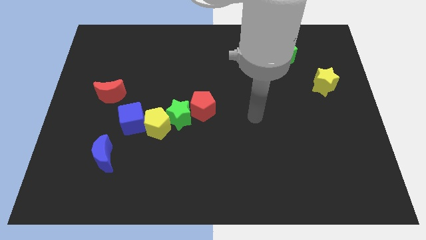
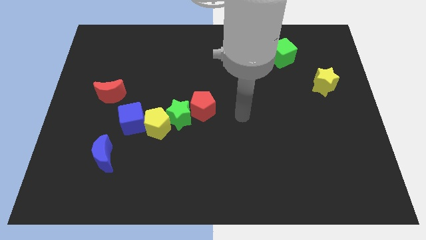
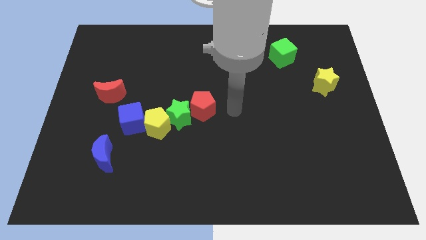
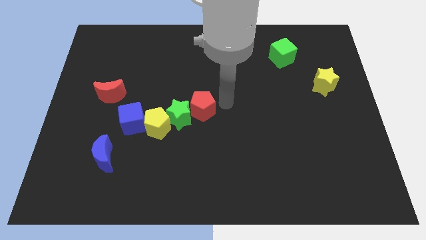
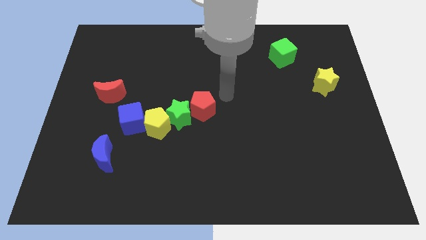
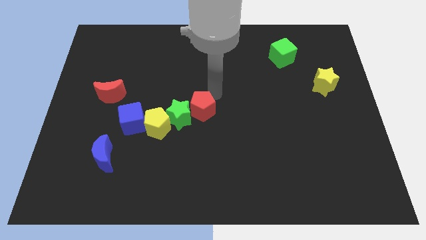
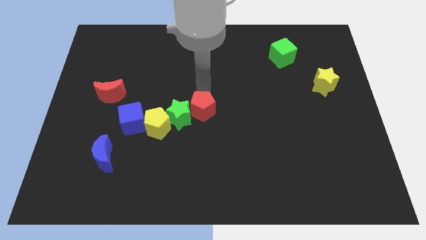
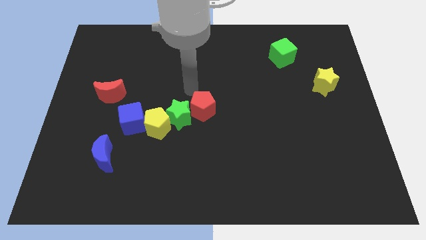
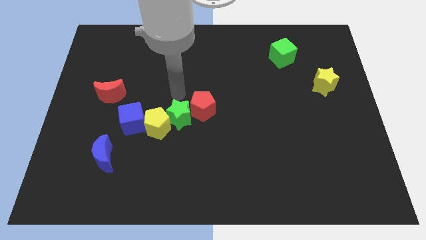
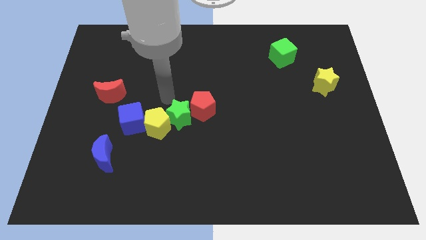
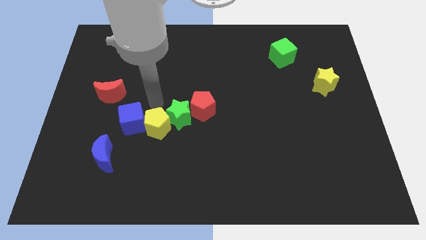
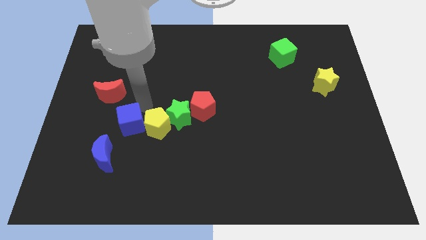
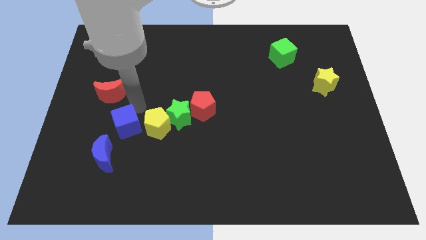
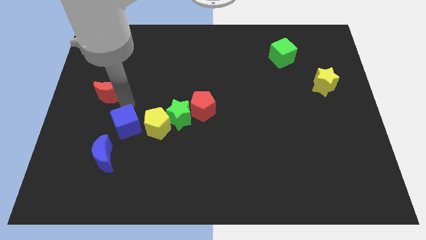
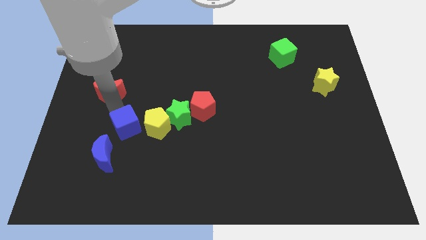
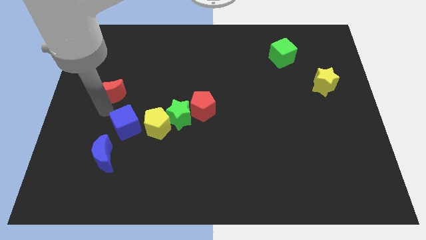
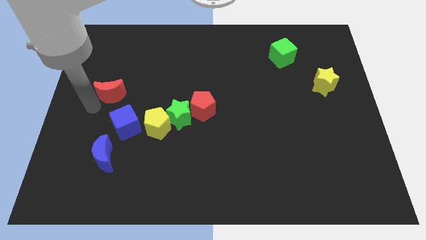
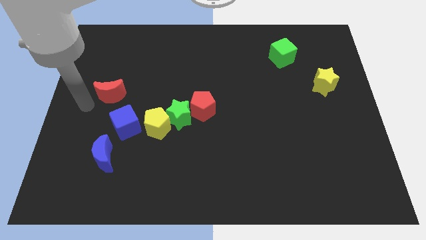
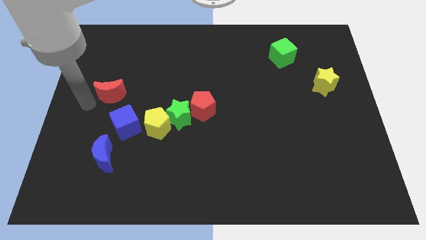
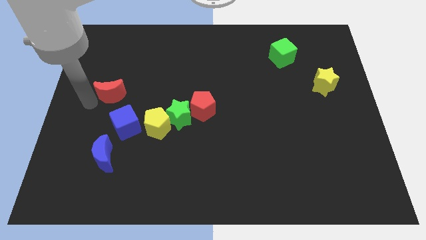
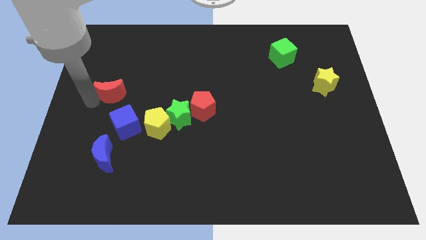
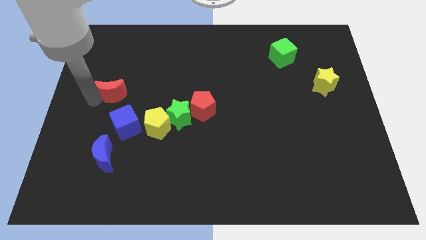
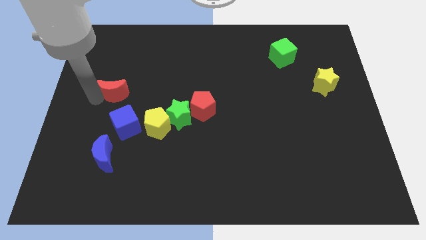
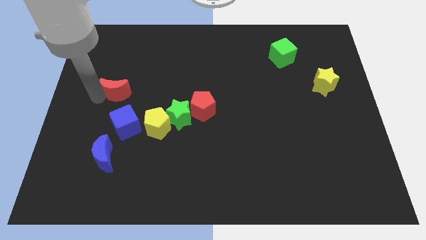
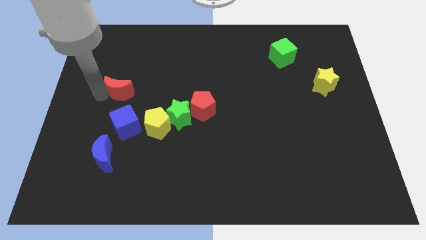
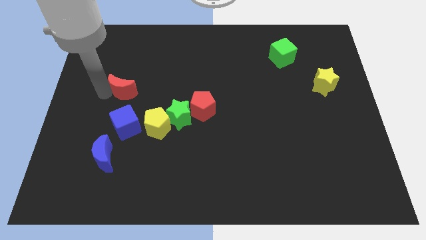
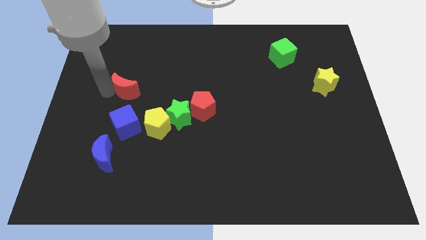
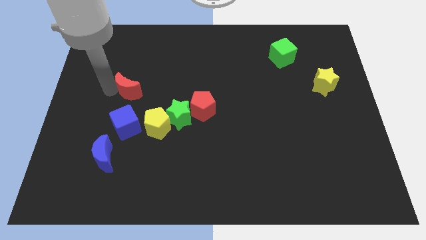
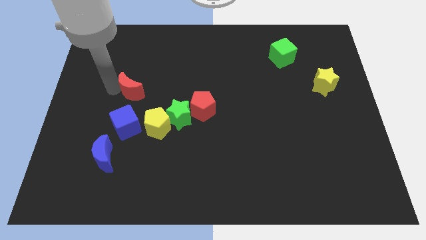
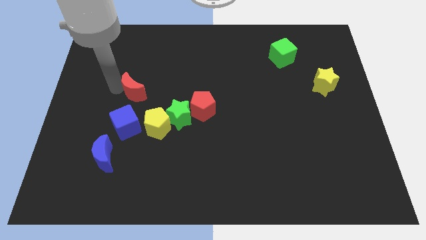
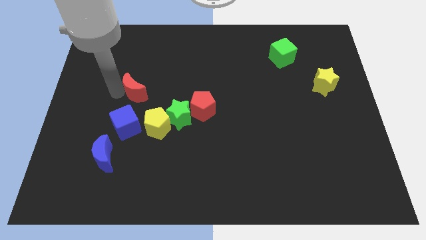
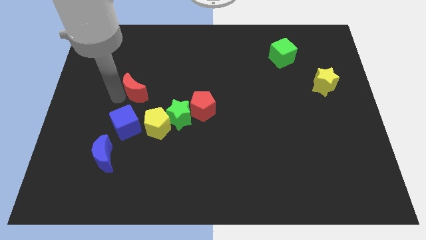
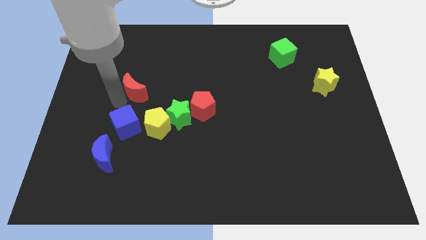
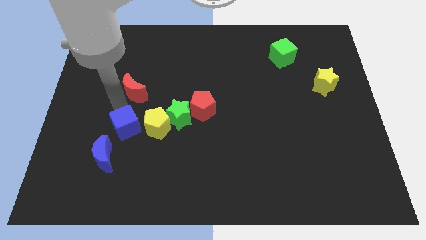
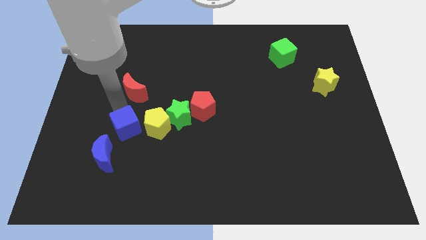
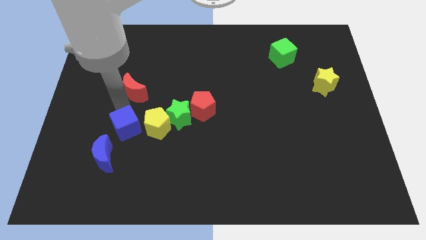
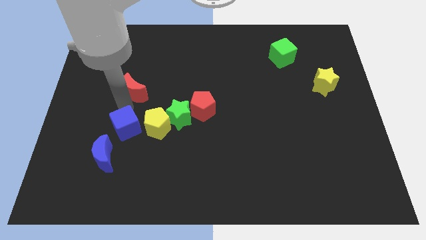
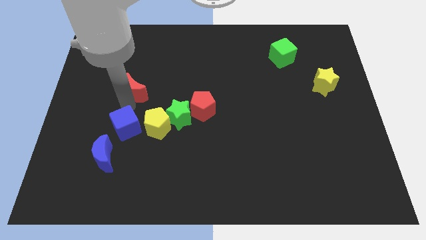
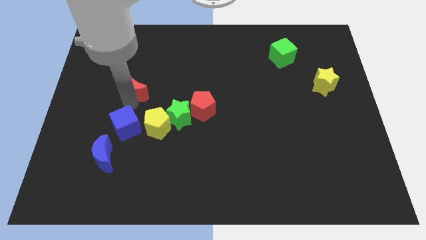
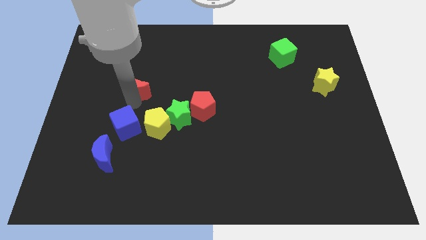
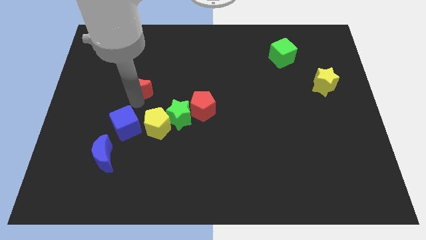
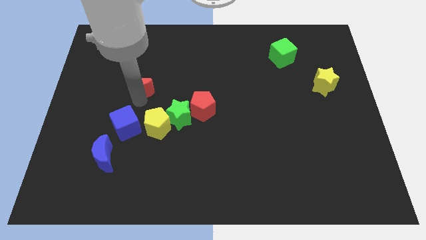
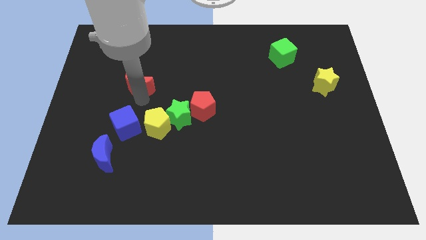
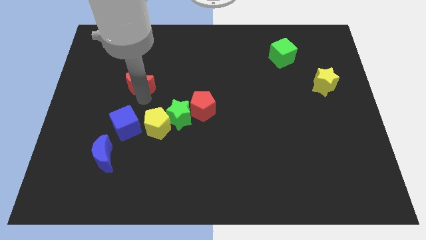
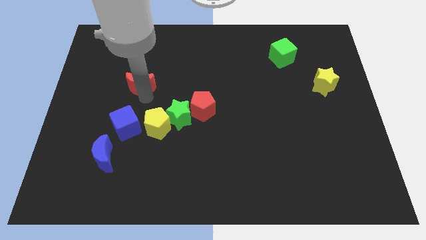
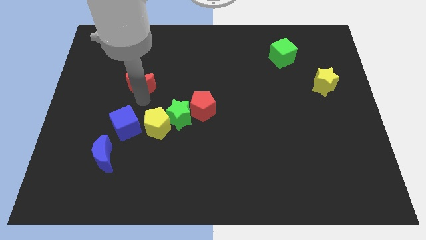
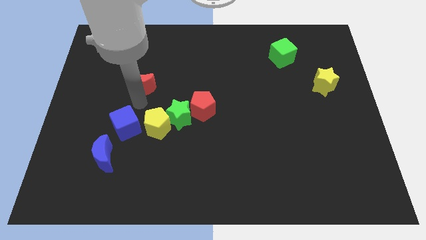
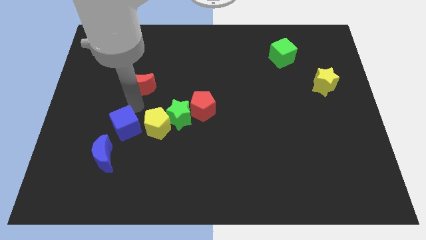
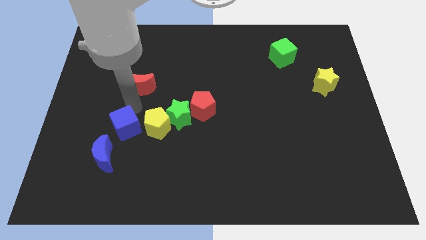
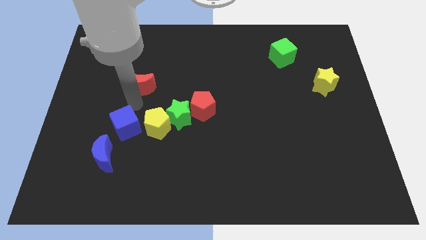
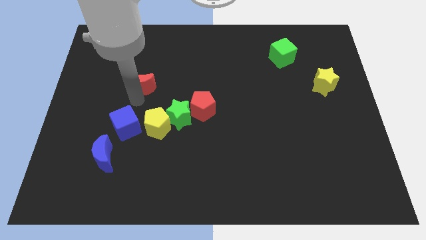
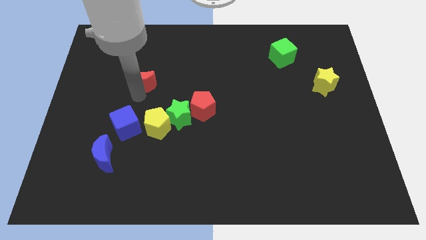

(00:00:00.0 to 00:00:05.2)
move the red moon a little up and to the right diagonally

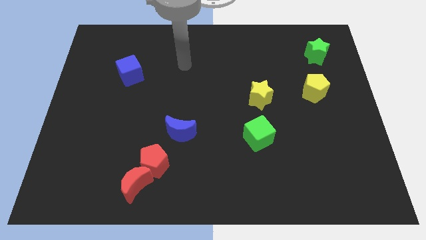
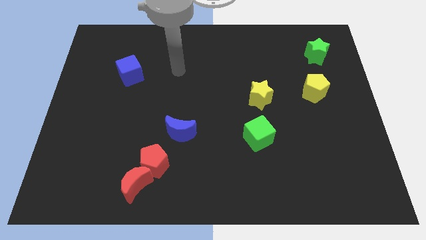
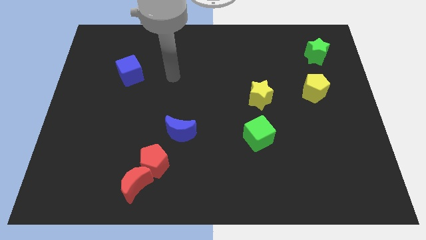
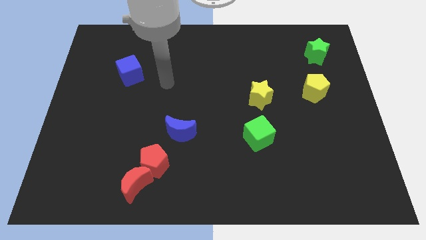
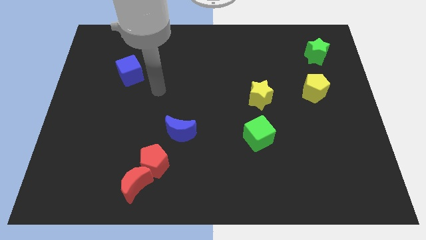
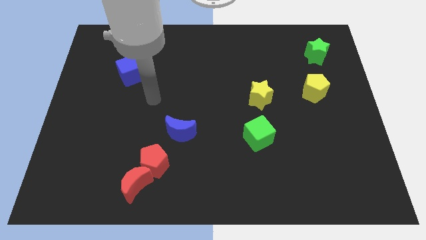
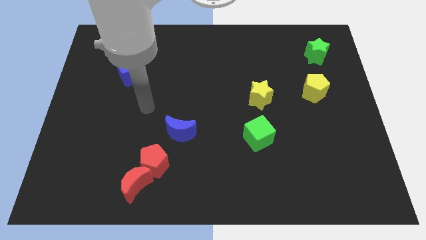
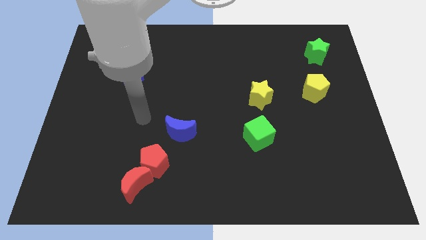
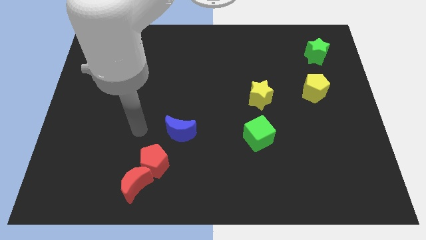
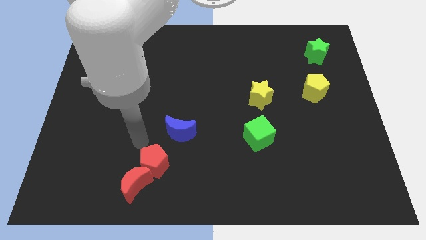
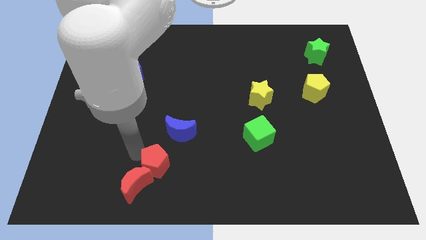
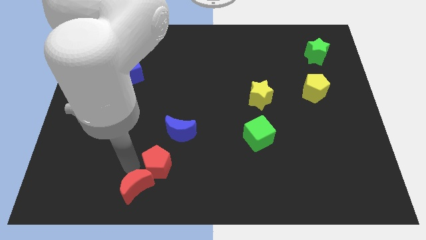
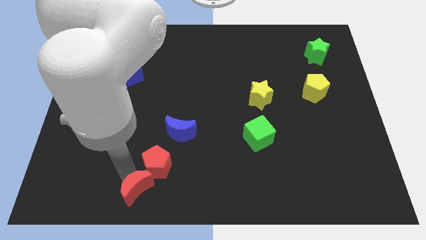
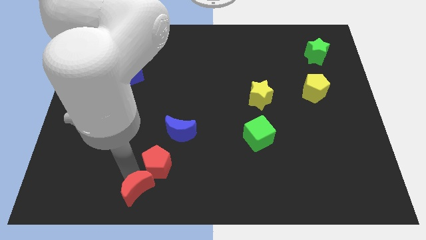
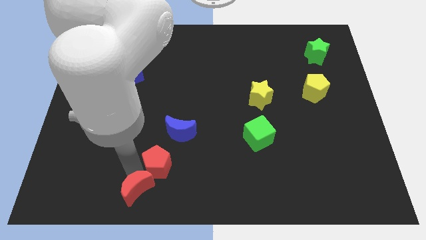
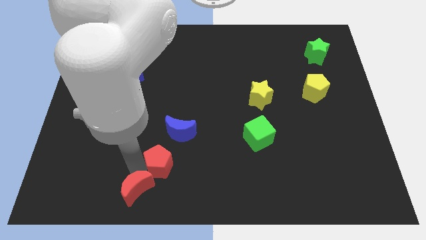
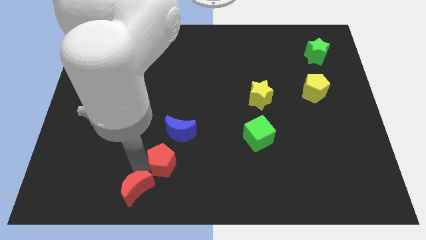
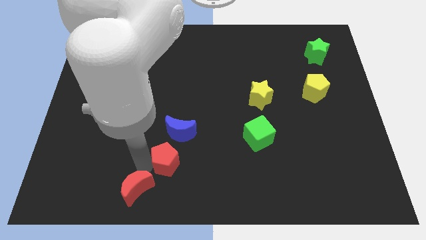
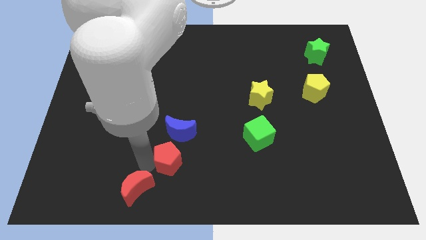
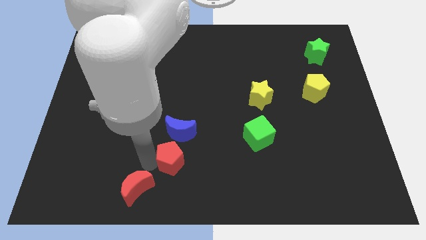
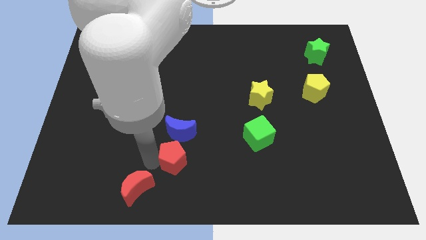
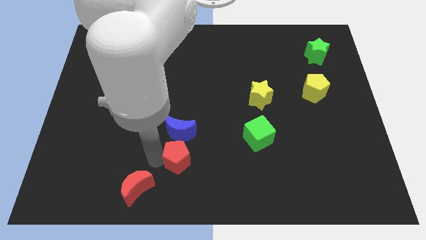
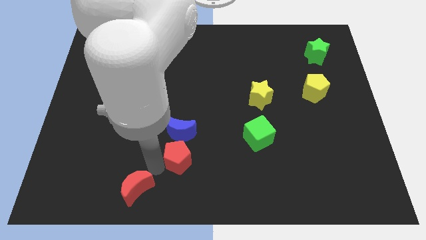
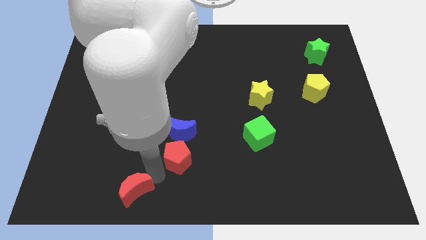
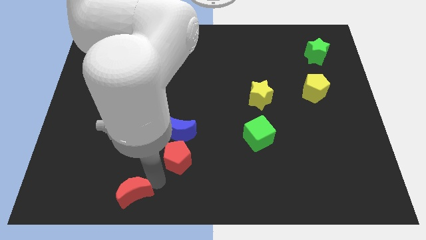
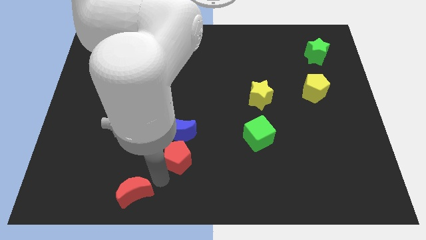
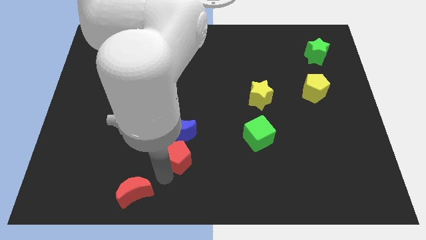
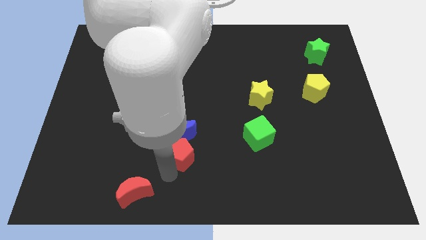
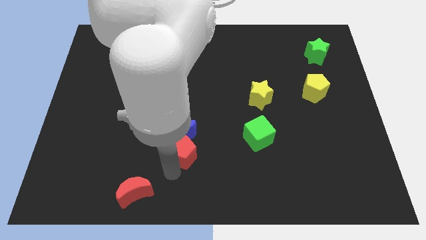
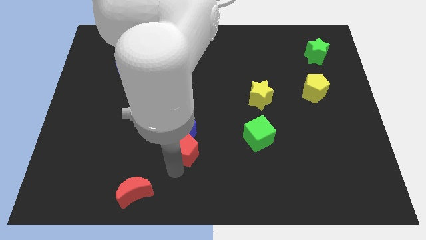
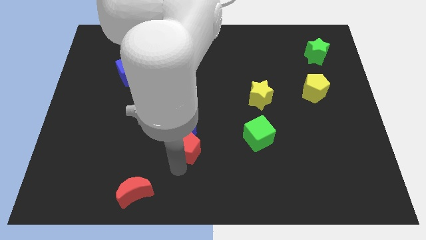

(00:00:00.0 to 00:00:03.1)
slightly move the red pentagon diagonally upwards and to the right

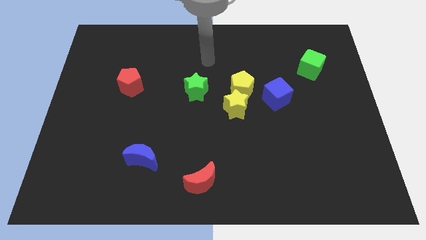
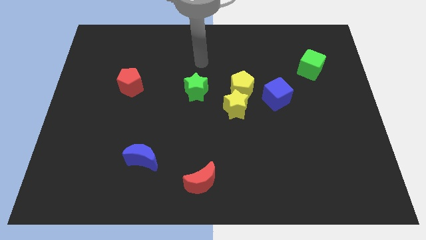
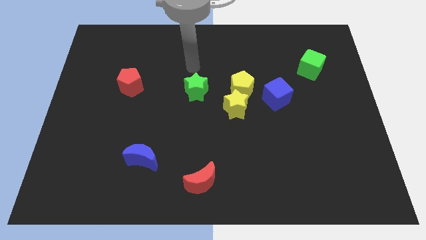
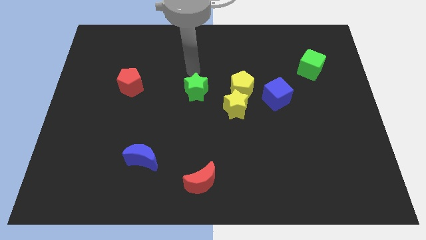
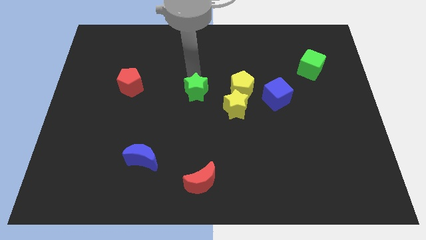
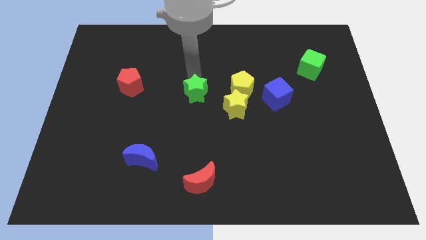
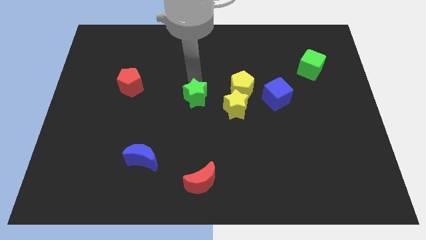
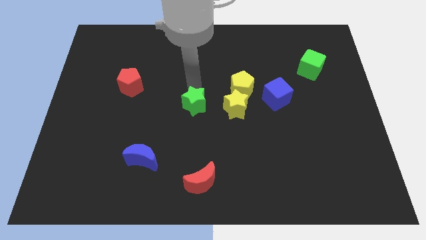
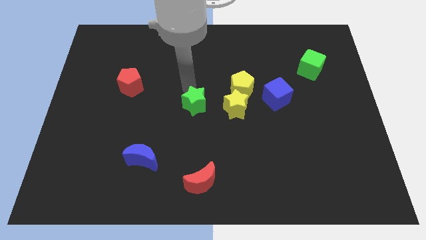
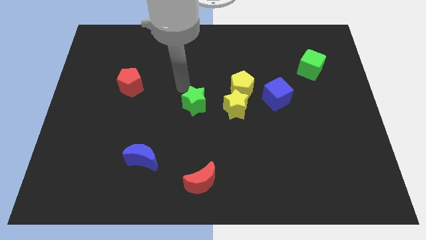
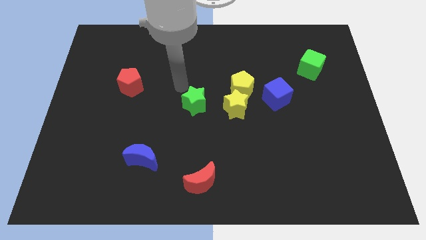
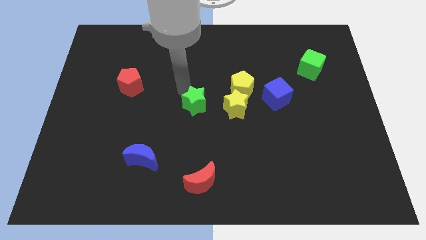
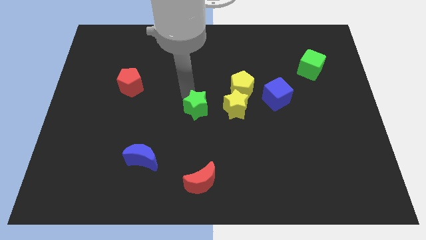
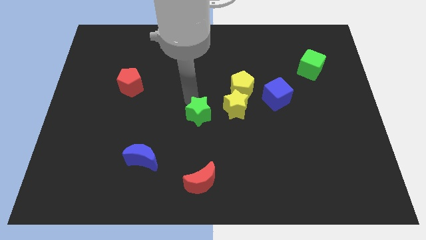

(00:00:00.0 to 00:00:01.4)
slide the green star a little downwards
